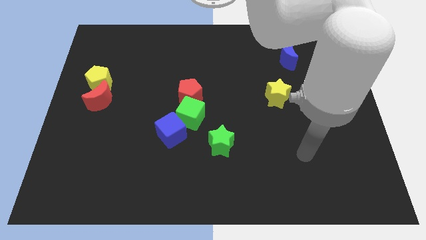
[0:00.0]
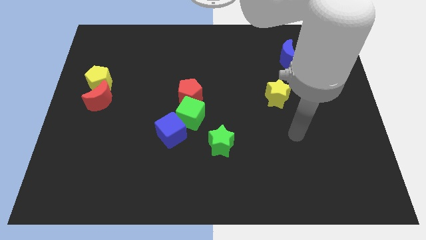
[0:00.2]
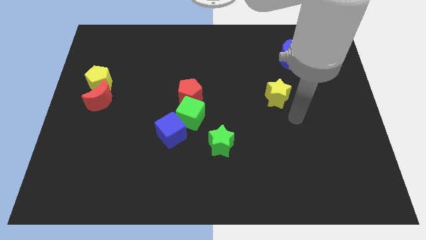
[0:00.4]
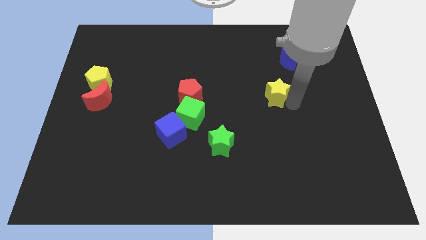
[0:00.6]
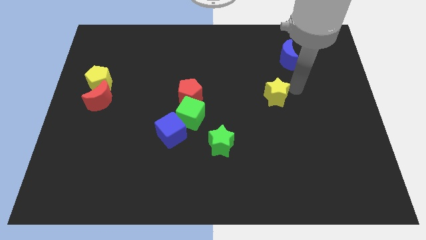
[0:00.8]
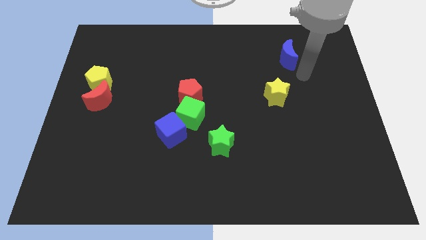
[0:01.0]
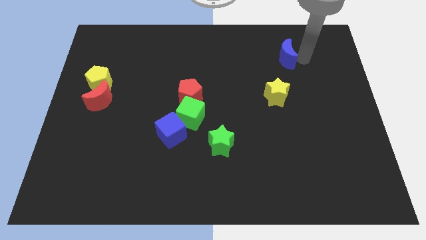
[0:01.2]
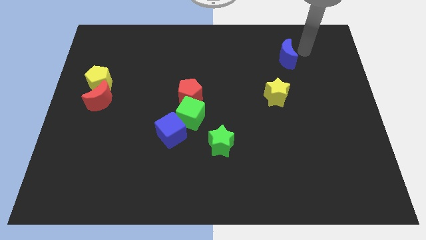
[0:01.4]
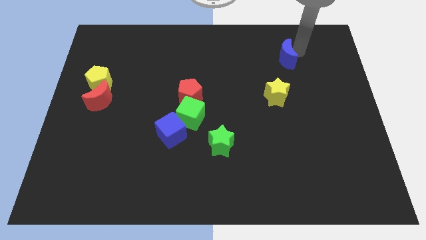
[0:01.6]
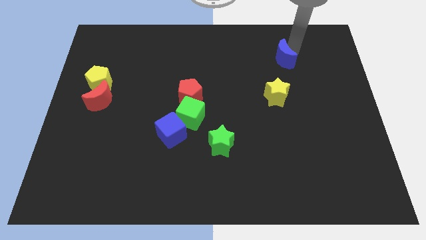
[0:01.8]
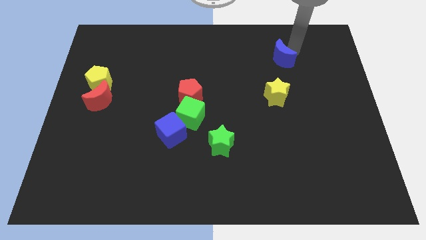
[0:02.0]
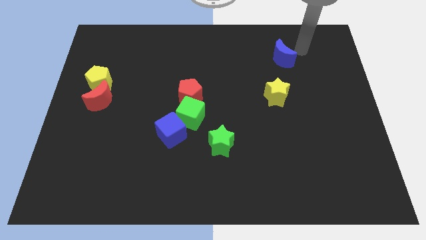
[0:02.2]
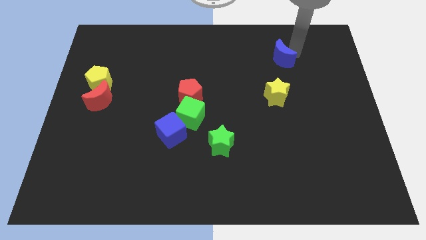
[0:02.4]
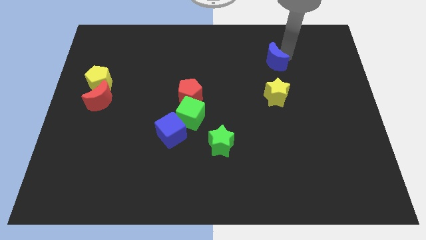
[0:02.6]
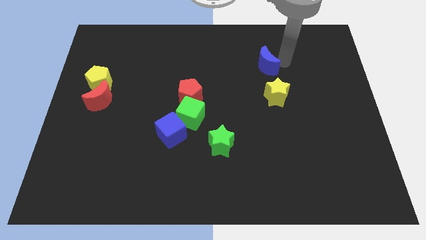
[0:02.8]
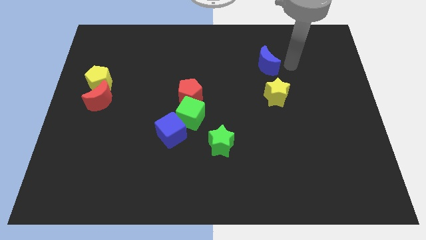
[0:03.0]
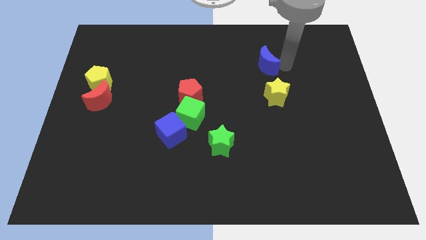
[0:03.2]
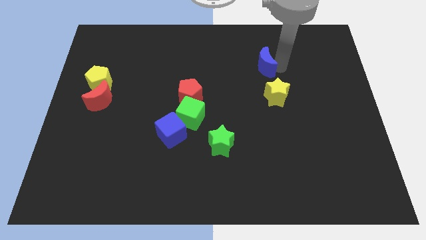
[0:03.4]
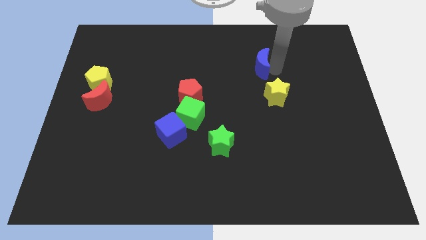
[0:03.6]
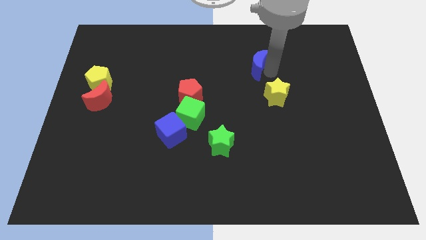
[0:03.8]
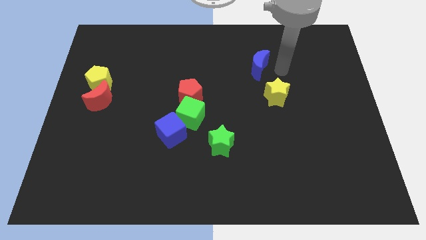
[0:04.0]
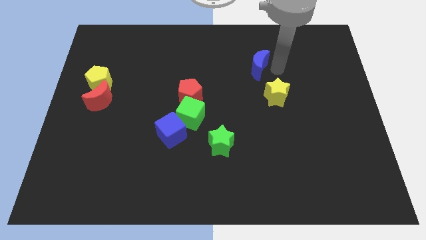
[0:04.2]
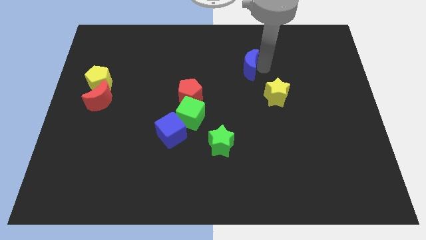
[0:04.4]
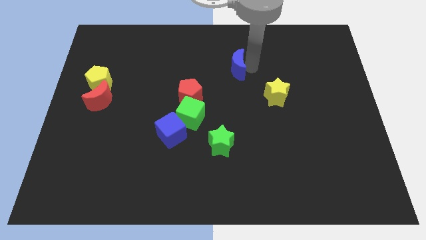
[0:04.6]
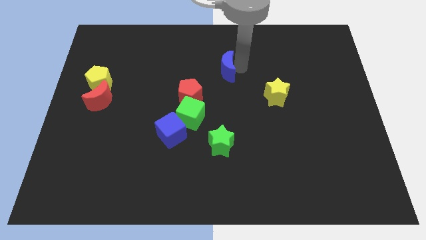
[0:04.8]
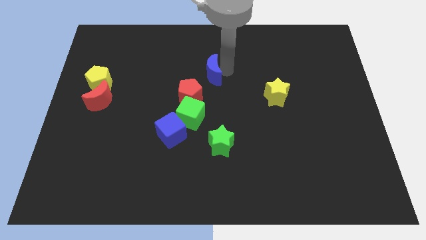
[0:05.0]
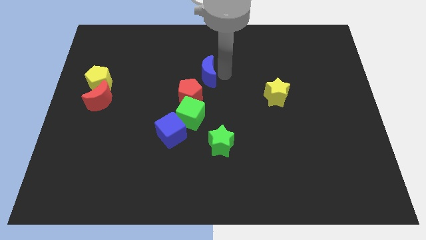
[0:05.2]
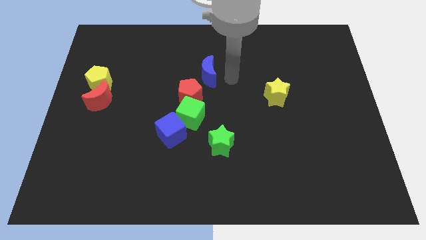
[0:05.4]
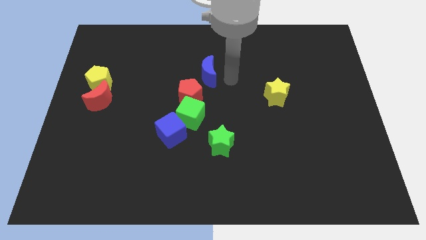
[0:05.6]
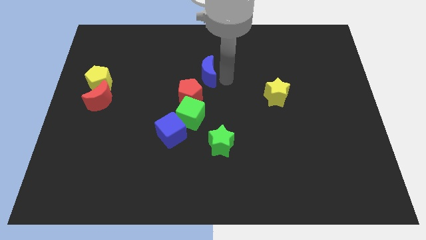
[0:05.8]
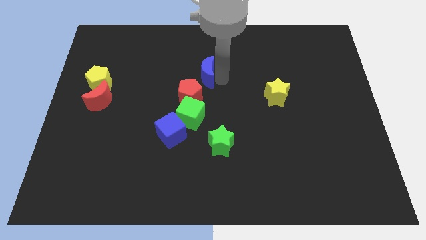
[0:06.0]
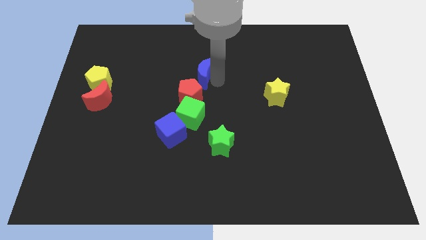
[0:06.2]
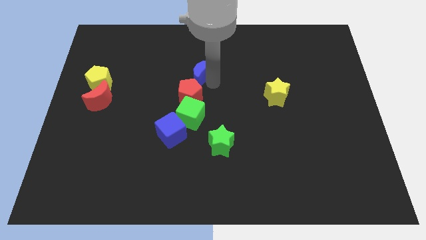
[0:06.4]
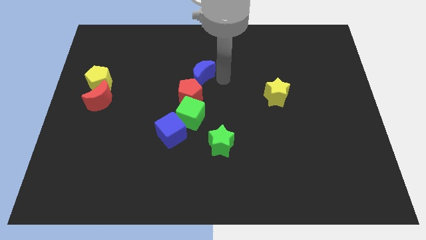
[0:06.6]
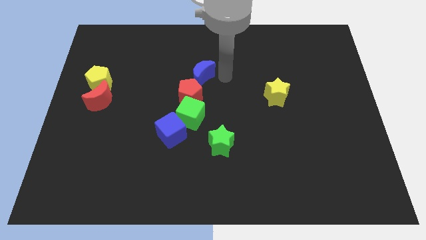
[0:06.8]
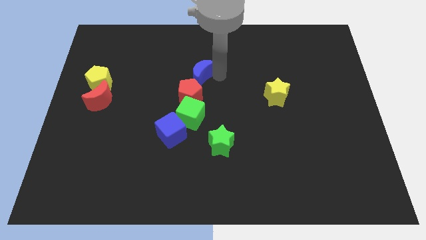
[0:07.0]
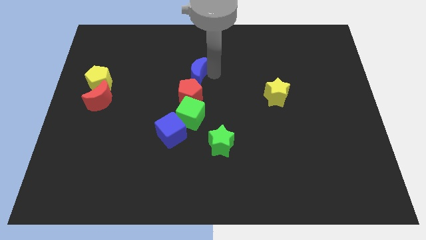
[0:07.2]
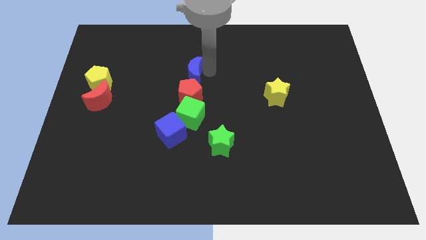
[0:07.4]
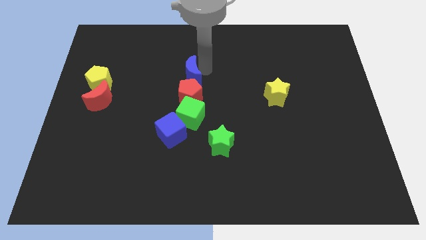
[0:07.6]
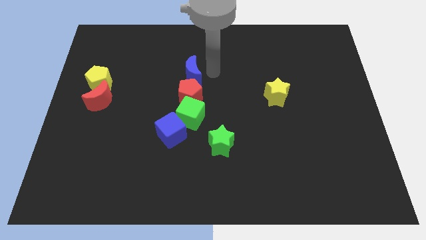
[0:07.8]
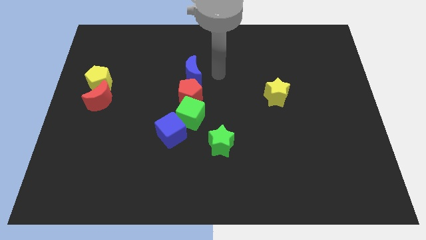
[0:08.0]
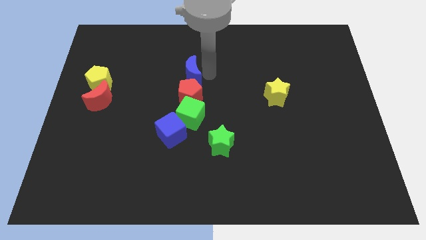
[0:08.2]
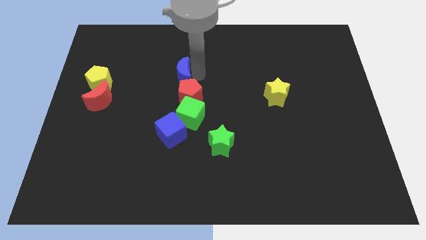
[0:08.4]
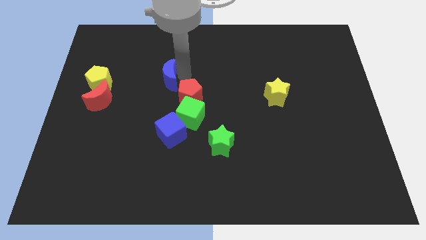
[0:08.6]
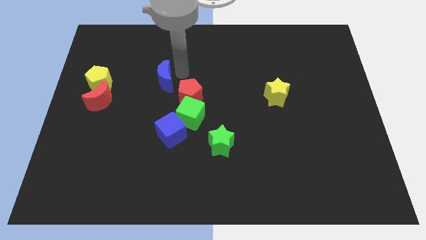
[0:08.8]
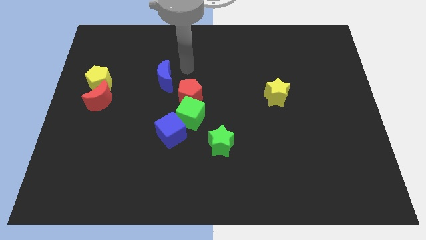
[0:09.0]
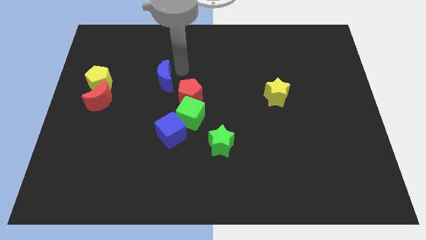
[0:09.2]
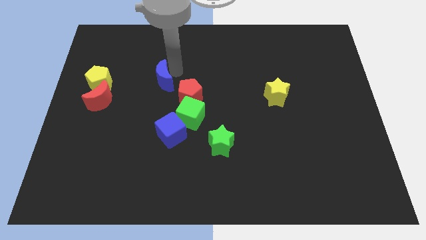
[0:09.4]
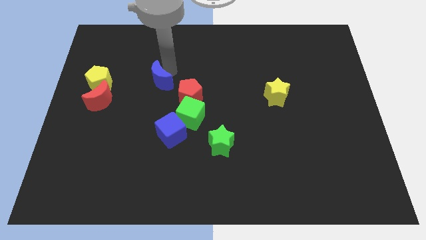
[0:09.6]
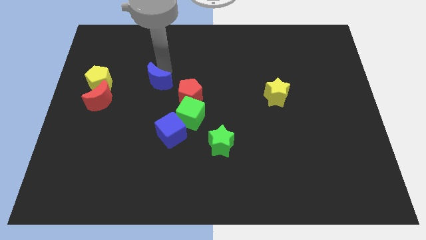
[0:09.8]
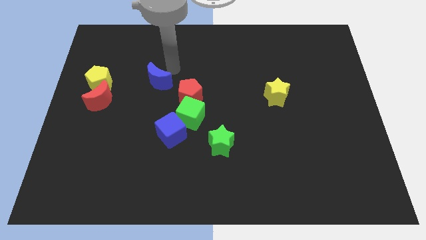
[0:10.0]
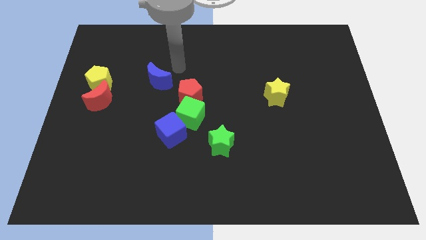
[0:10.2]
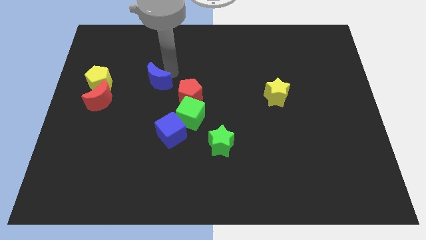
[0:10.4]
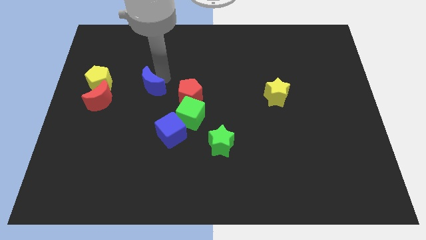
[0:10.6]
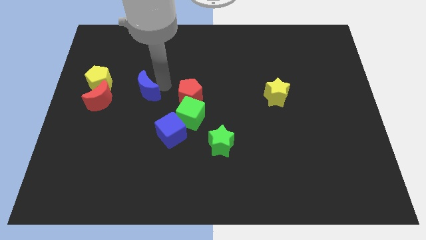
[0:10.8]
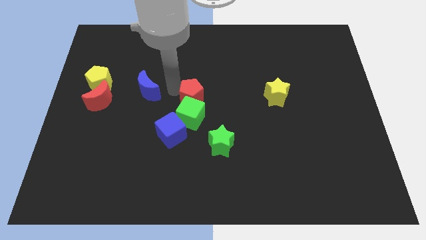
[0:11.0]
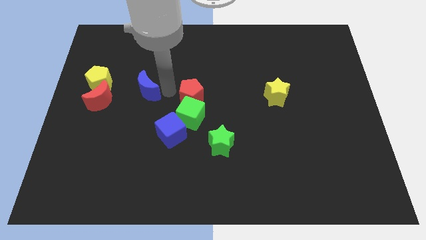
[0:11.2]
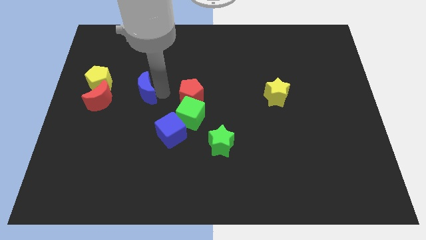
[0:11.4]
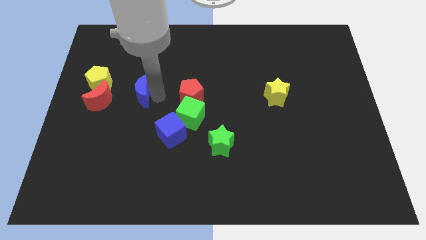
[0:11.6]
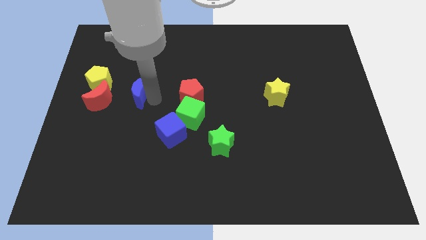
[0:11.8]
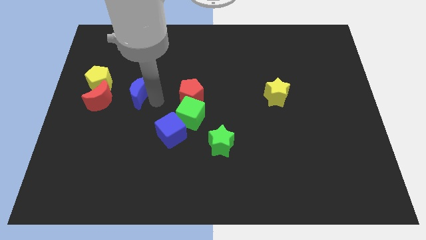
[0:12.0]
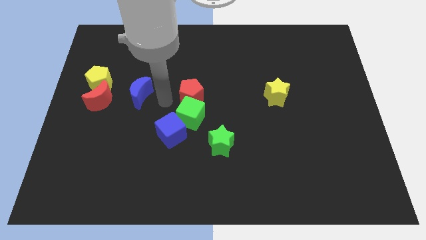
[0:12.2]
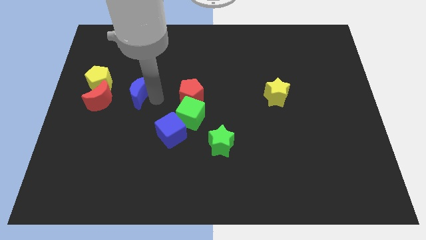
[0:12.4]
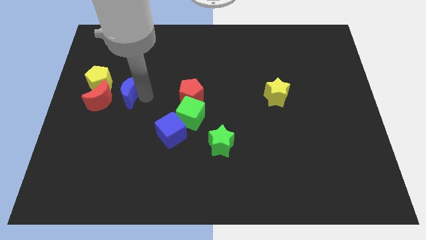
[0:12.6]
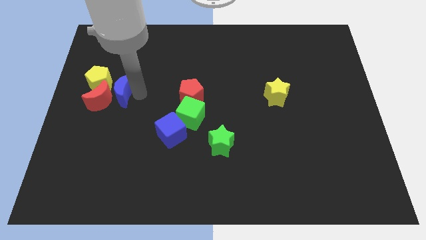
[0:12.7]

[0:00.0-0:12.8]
slide the blue moon close to the red moon

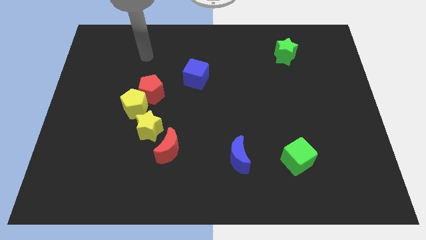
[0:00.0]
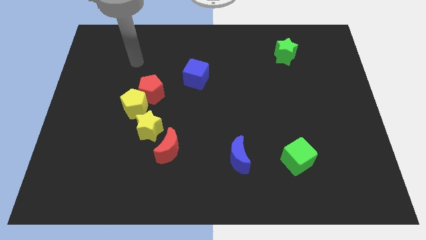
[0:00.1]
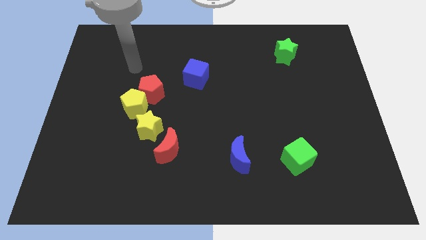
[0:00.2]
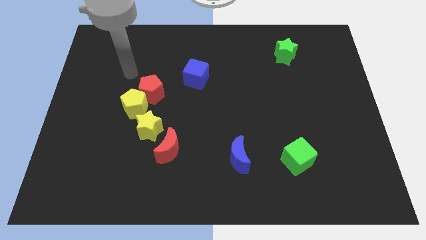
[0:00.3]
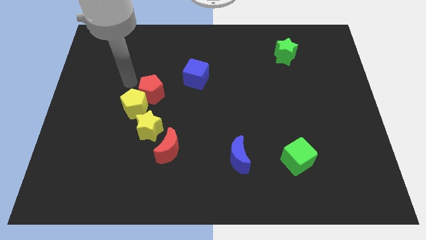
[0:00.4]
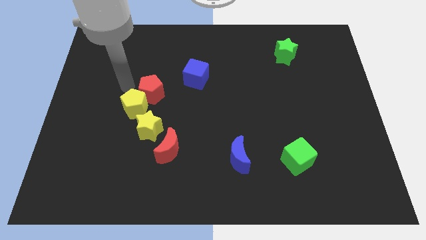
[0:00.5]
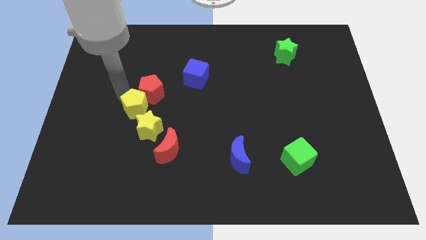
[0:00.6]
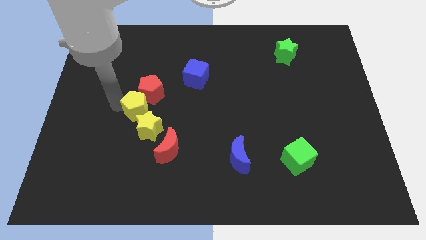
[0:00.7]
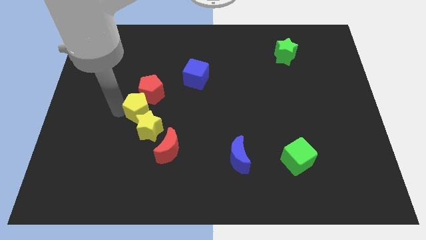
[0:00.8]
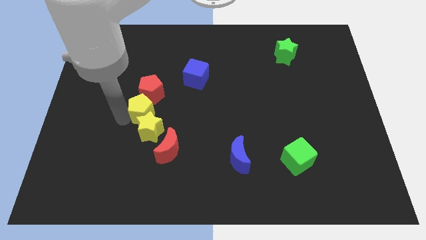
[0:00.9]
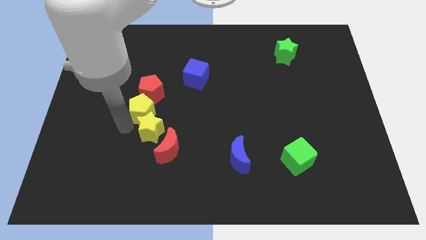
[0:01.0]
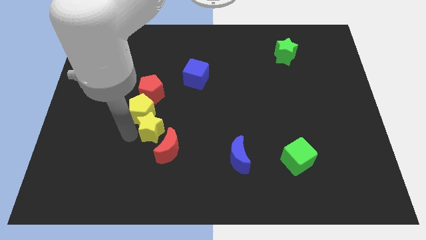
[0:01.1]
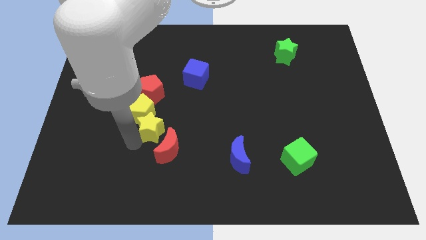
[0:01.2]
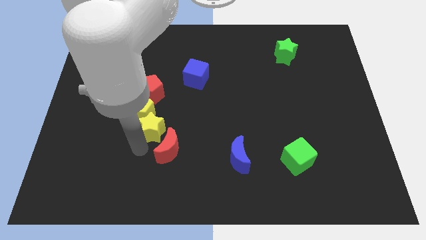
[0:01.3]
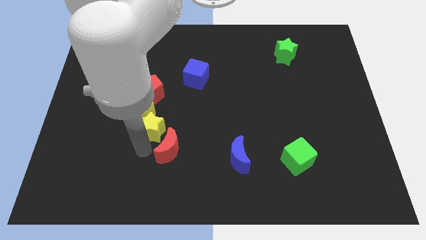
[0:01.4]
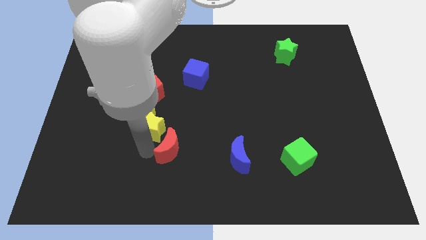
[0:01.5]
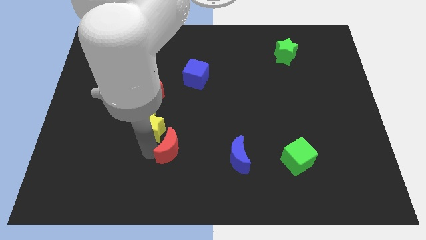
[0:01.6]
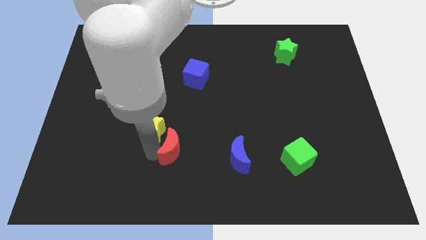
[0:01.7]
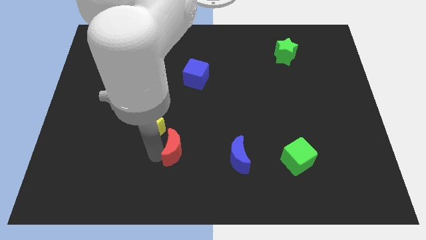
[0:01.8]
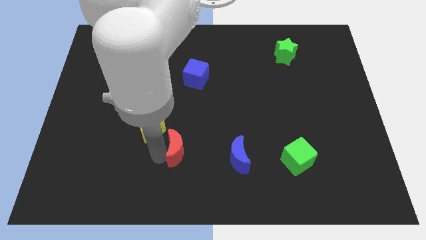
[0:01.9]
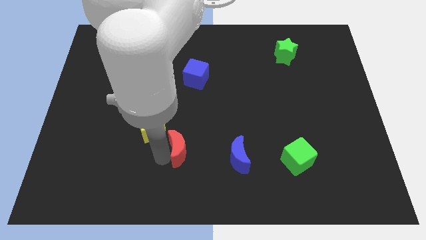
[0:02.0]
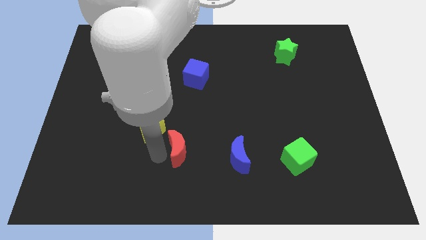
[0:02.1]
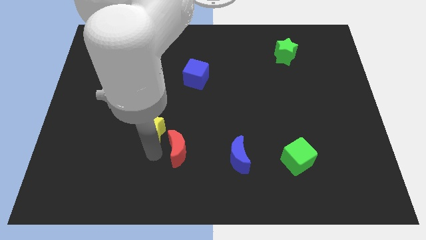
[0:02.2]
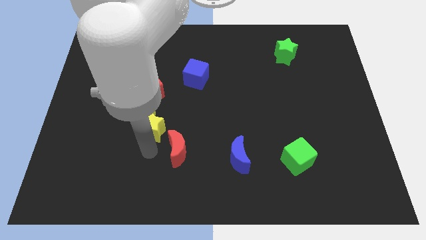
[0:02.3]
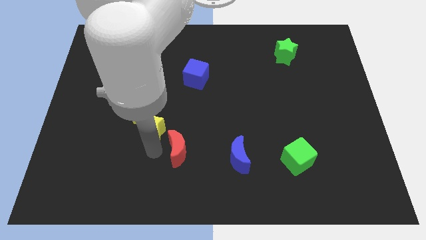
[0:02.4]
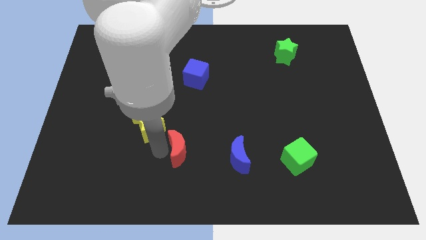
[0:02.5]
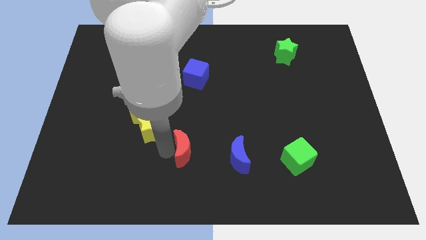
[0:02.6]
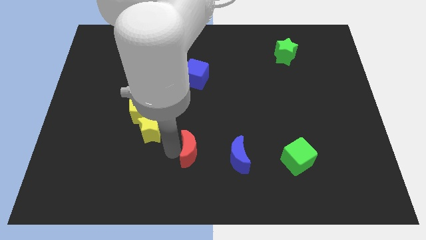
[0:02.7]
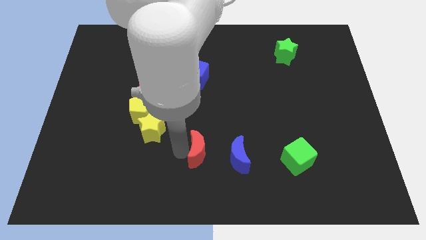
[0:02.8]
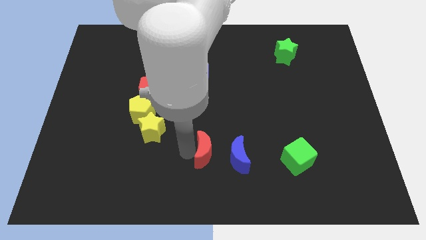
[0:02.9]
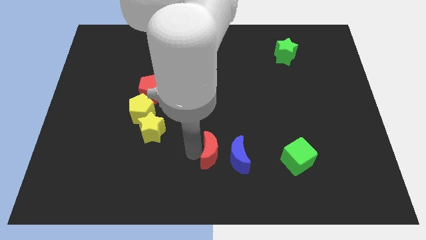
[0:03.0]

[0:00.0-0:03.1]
push the red moon next to the blue moon
